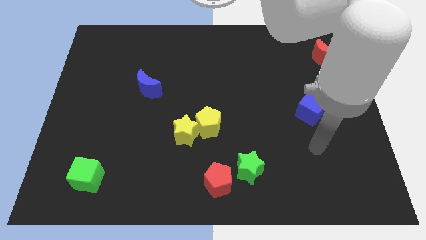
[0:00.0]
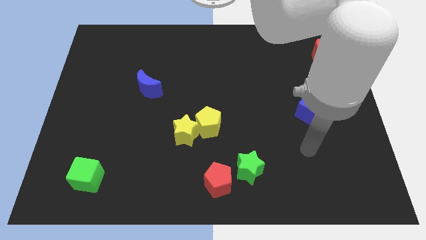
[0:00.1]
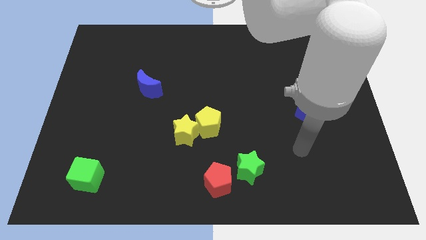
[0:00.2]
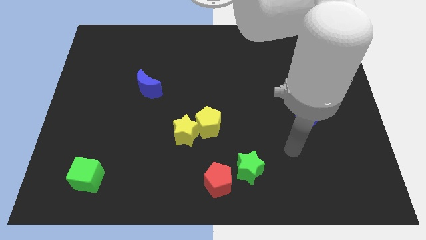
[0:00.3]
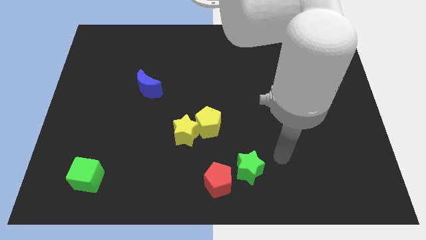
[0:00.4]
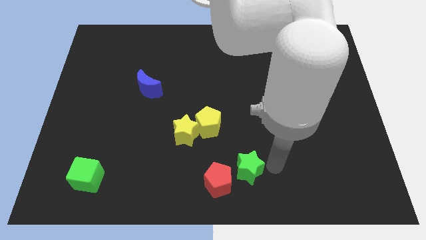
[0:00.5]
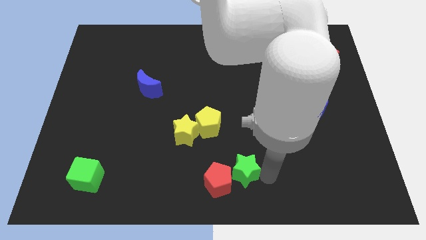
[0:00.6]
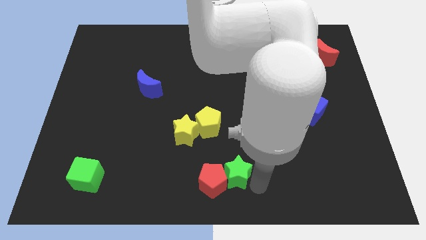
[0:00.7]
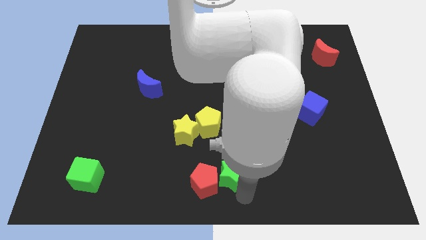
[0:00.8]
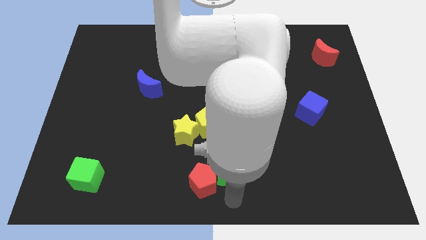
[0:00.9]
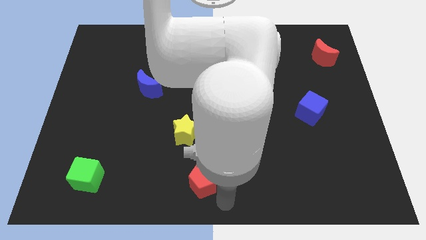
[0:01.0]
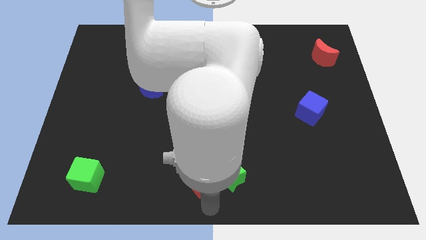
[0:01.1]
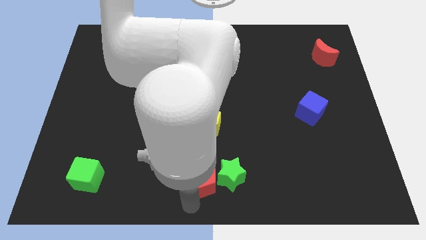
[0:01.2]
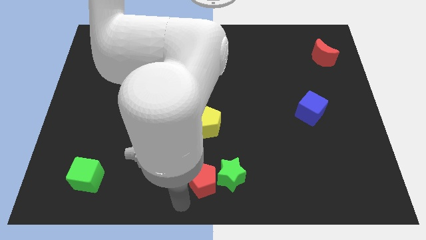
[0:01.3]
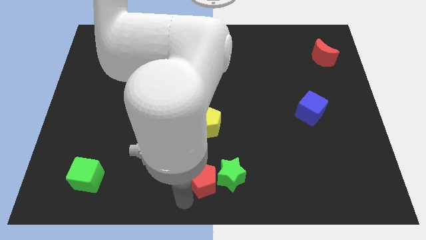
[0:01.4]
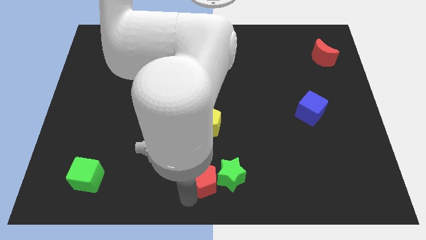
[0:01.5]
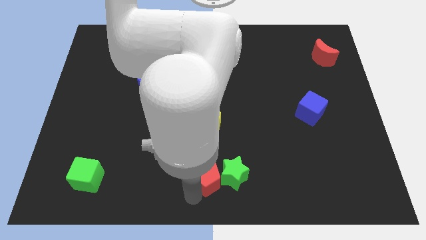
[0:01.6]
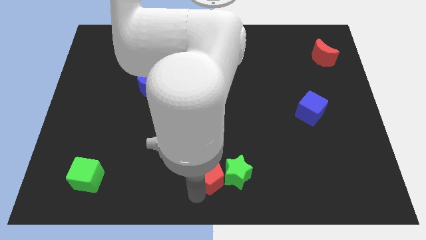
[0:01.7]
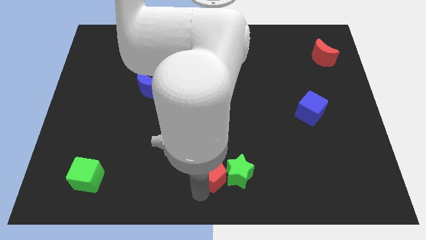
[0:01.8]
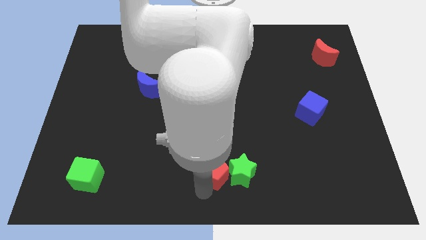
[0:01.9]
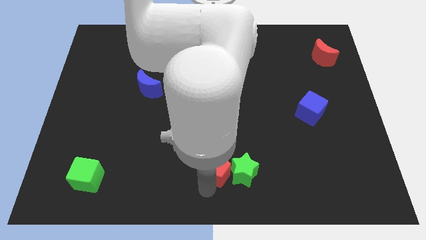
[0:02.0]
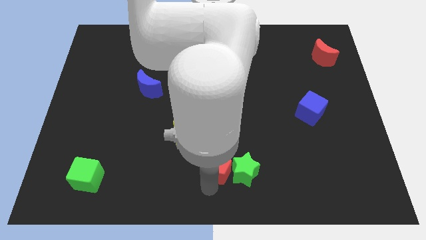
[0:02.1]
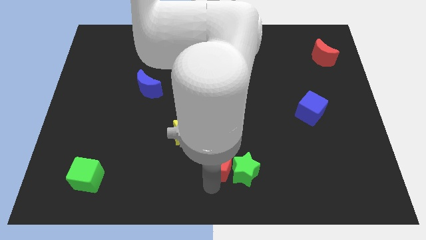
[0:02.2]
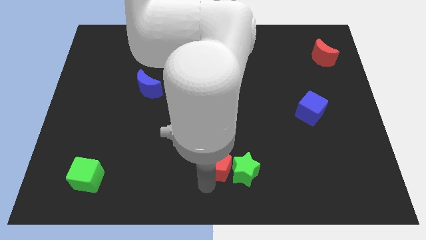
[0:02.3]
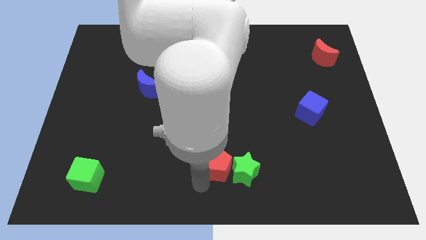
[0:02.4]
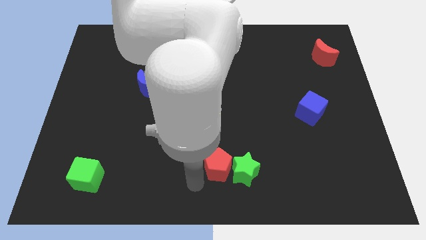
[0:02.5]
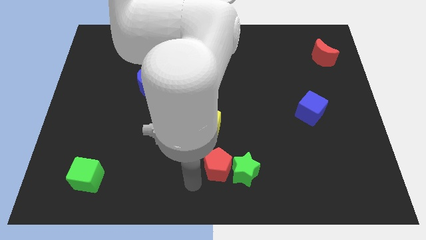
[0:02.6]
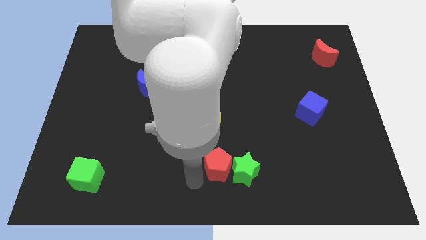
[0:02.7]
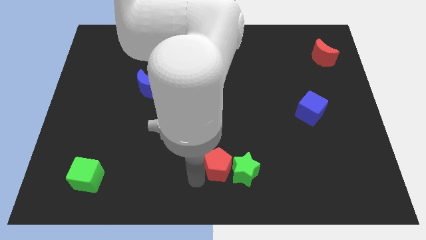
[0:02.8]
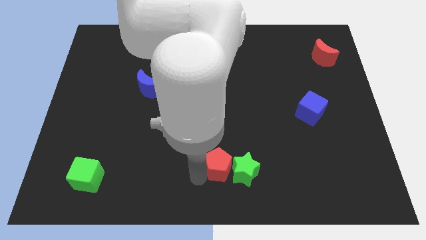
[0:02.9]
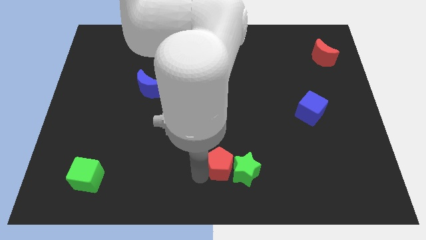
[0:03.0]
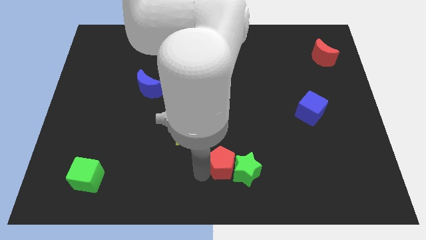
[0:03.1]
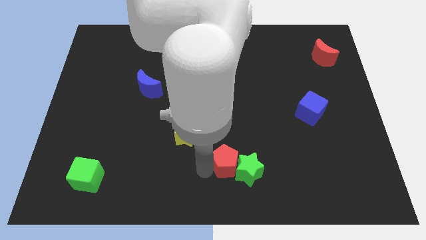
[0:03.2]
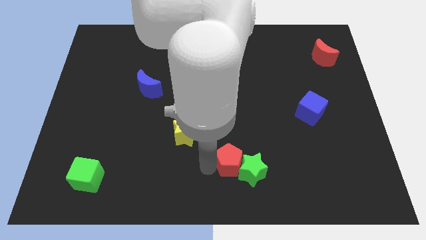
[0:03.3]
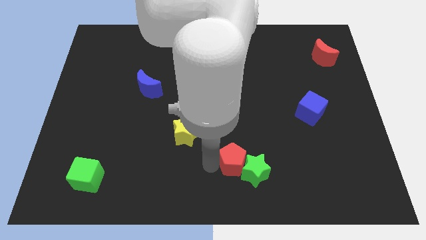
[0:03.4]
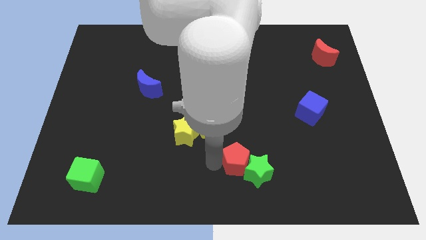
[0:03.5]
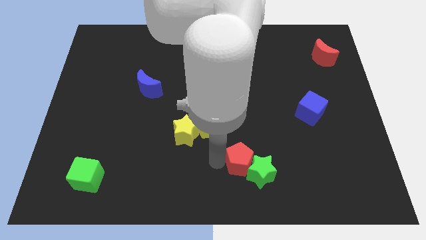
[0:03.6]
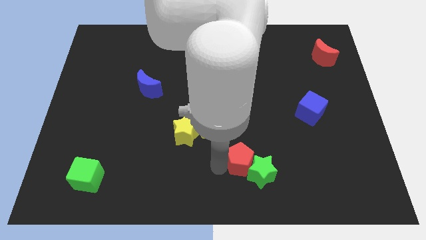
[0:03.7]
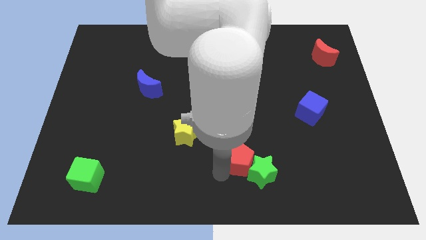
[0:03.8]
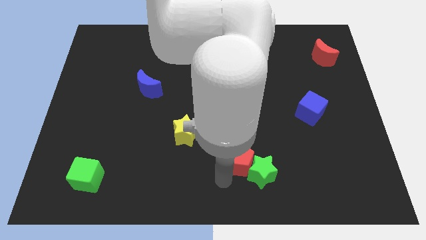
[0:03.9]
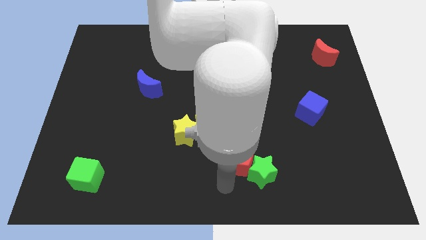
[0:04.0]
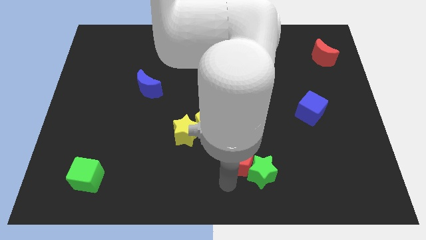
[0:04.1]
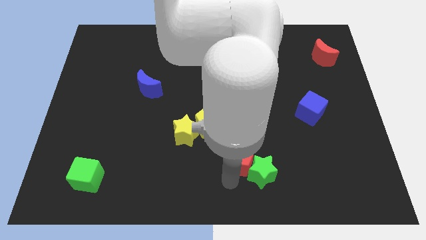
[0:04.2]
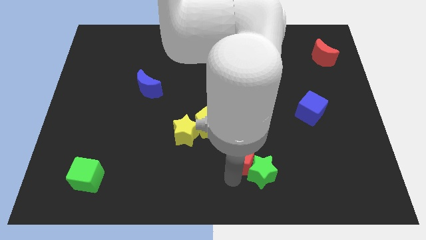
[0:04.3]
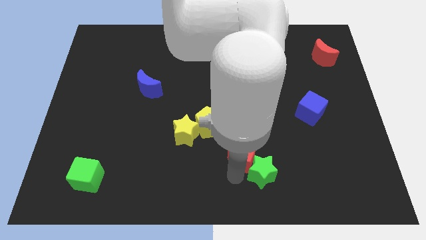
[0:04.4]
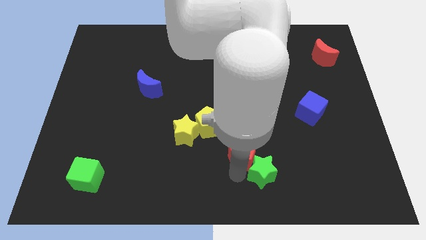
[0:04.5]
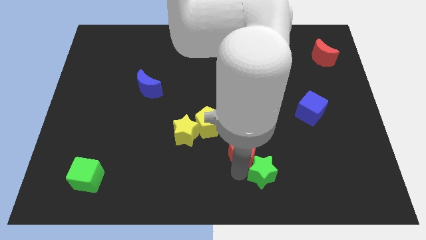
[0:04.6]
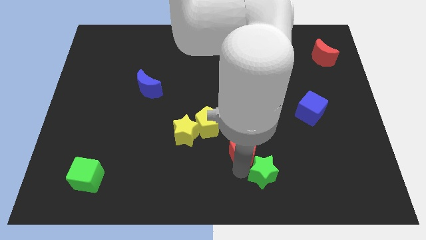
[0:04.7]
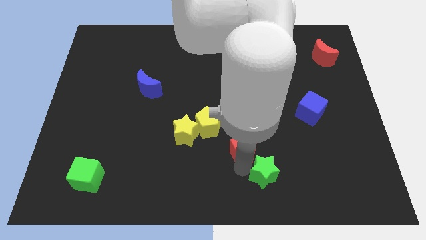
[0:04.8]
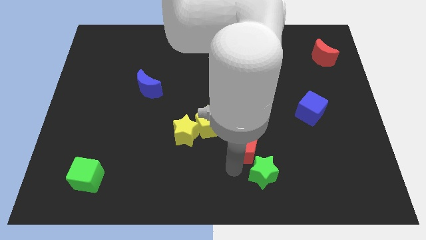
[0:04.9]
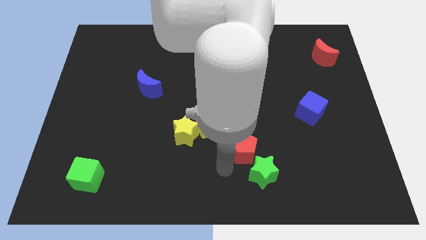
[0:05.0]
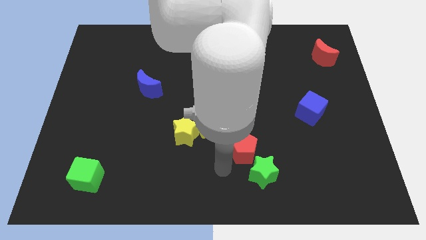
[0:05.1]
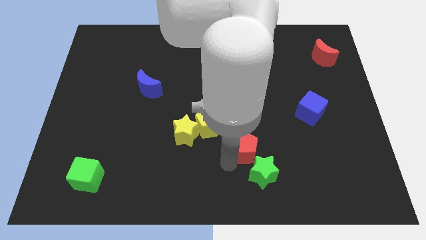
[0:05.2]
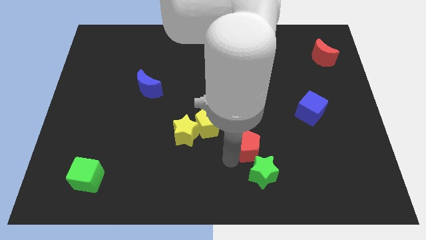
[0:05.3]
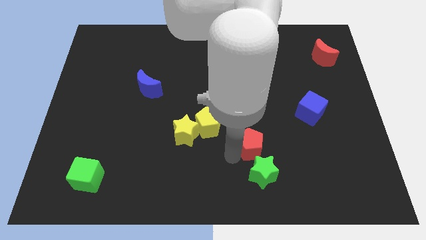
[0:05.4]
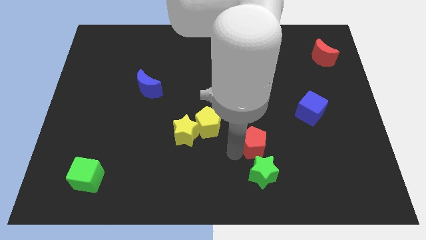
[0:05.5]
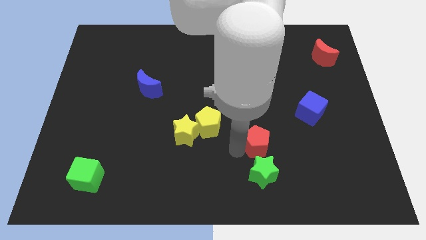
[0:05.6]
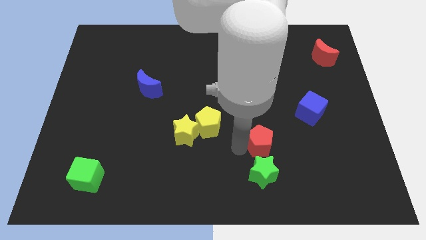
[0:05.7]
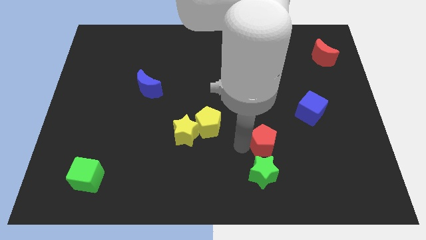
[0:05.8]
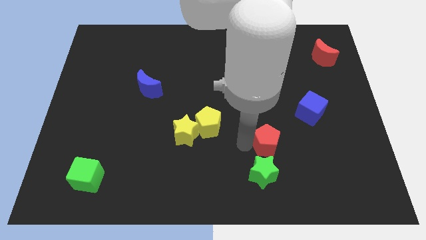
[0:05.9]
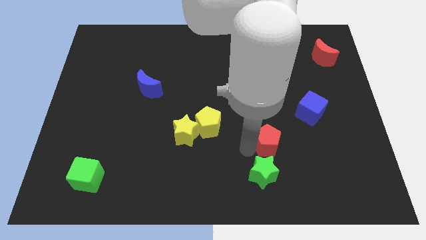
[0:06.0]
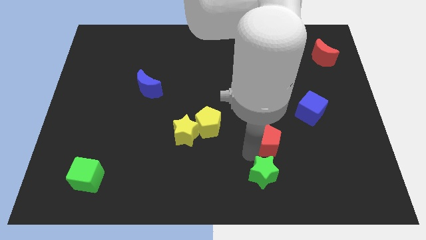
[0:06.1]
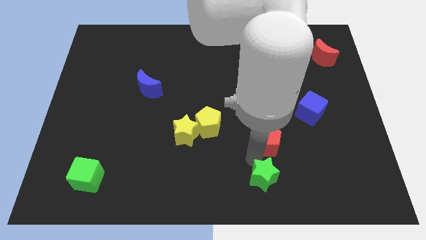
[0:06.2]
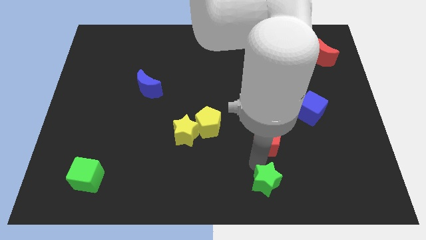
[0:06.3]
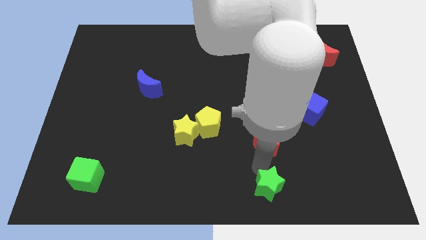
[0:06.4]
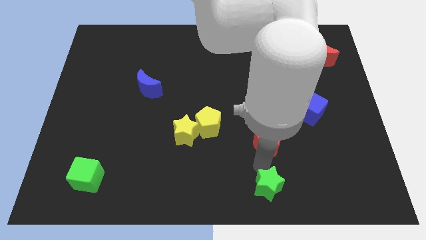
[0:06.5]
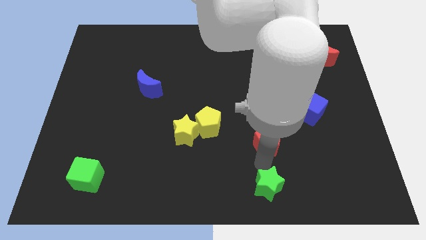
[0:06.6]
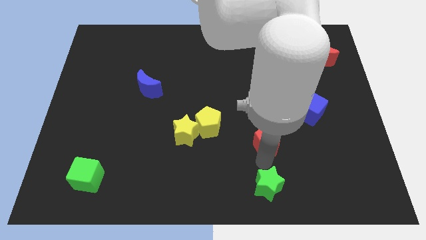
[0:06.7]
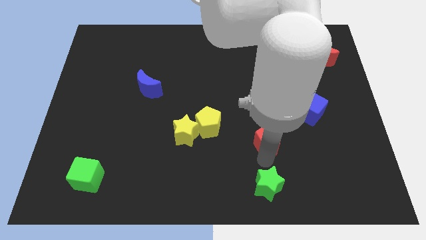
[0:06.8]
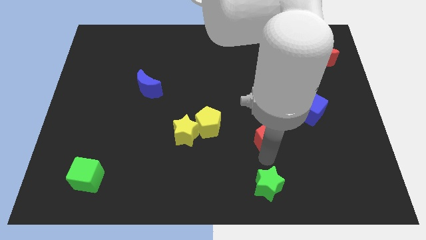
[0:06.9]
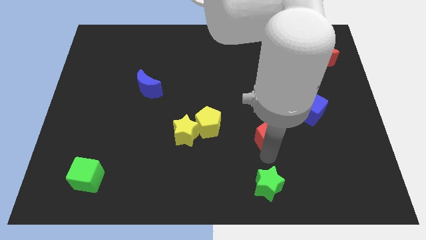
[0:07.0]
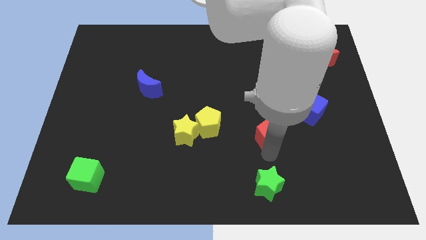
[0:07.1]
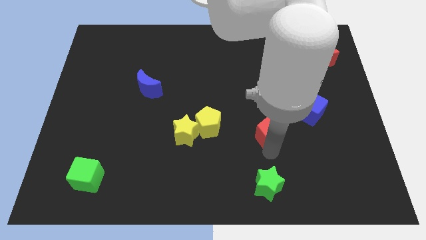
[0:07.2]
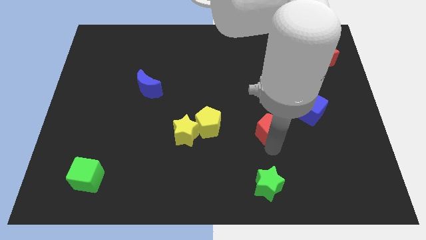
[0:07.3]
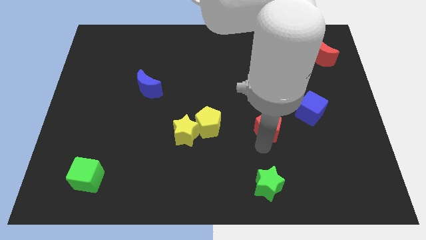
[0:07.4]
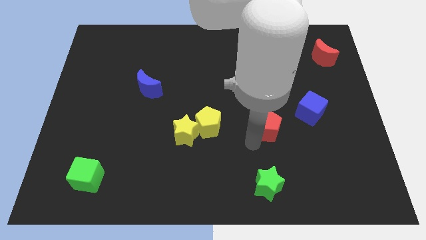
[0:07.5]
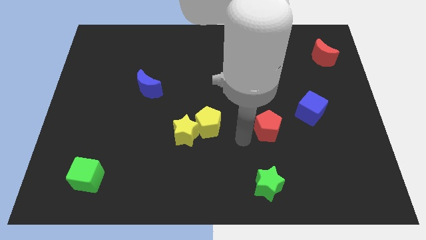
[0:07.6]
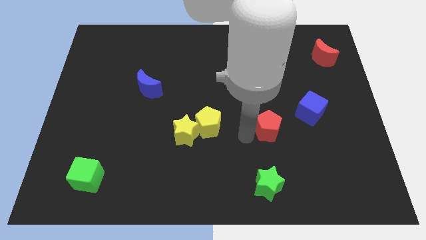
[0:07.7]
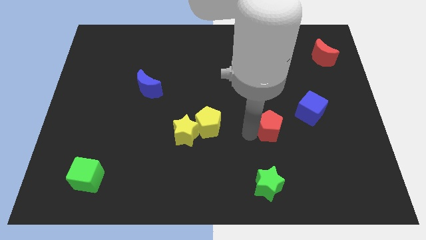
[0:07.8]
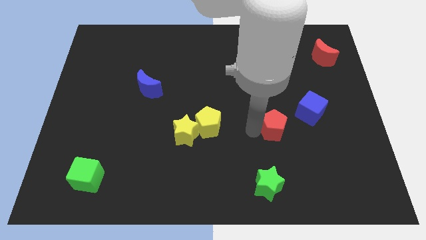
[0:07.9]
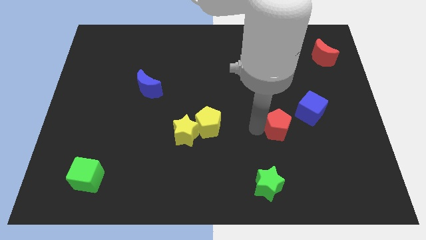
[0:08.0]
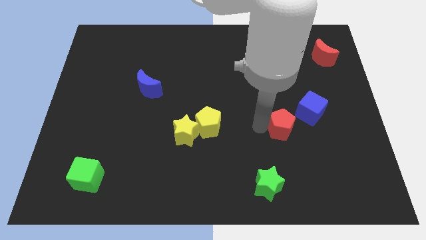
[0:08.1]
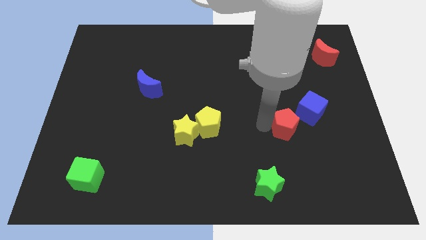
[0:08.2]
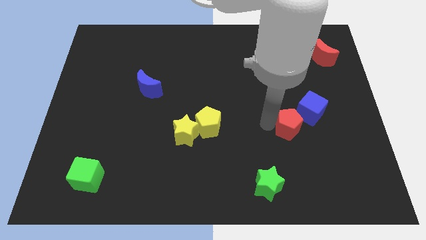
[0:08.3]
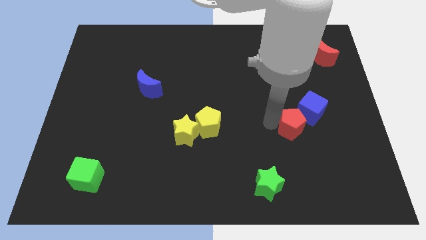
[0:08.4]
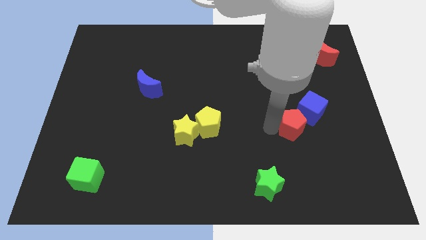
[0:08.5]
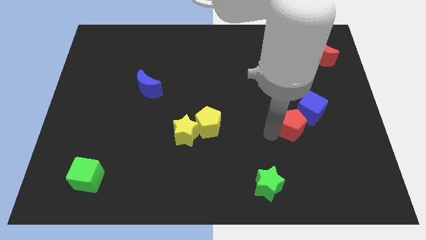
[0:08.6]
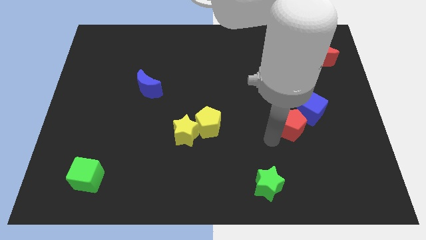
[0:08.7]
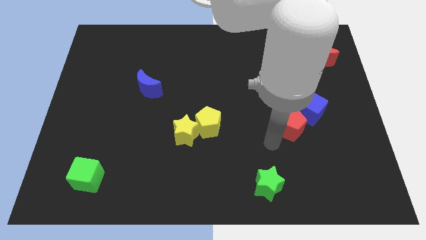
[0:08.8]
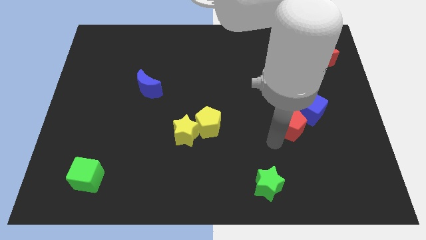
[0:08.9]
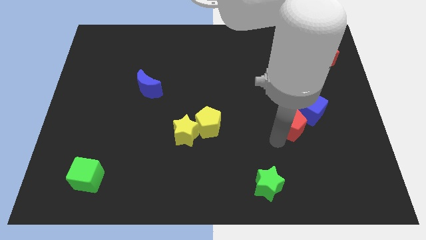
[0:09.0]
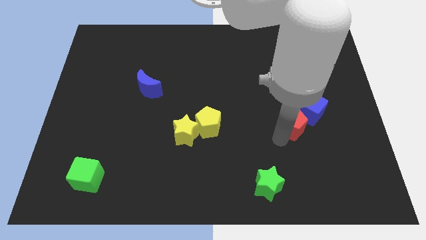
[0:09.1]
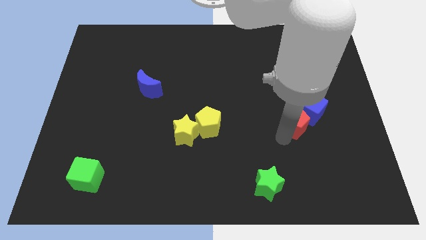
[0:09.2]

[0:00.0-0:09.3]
move the red pentagon next to the blue cube
